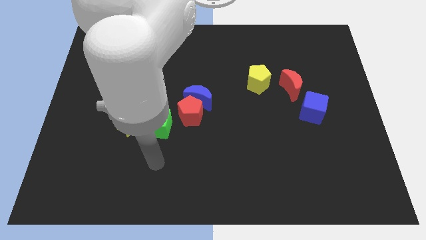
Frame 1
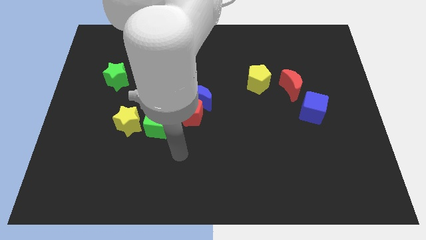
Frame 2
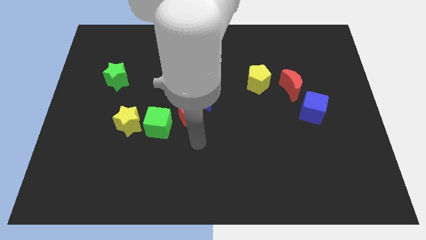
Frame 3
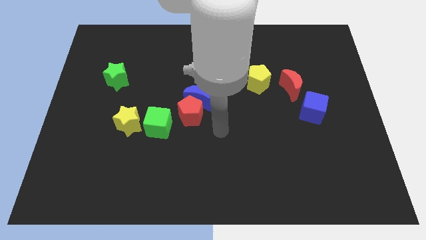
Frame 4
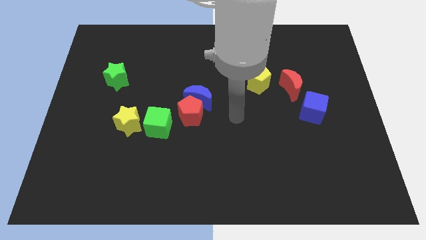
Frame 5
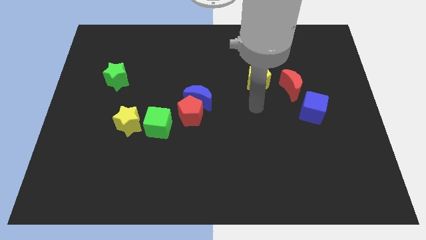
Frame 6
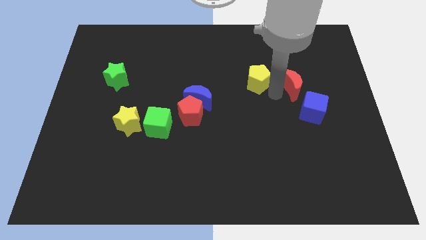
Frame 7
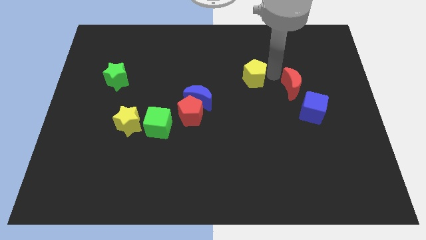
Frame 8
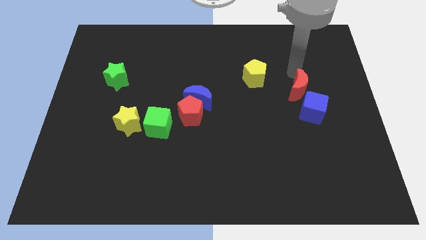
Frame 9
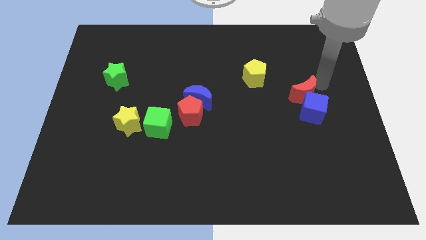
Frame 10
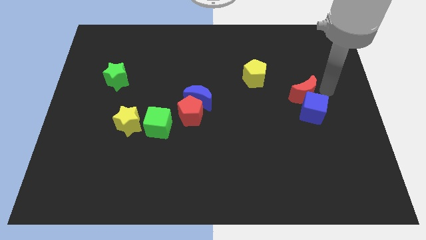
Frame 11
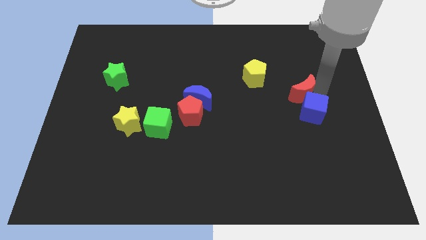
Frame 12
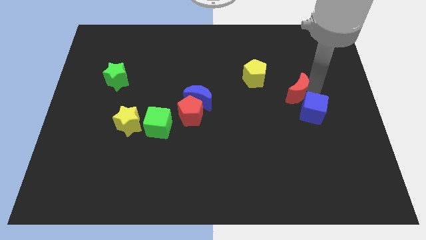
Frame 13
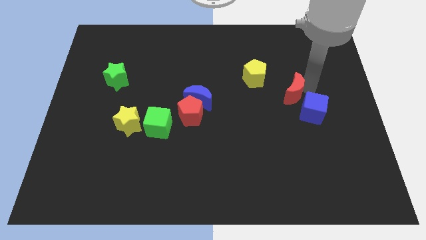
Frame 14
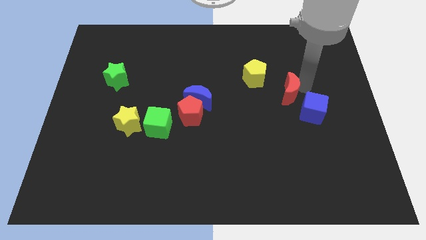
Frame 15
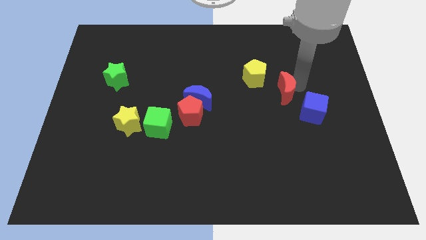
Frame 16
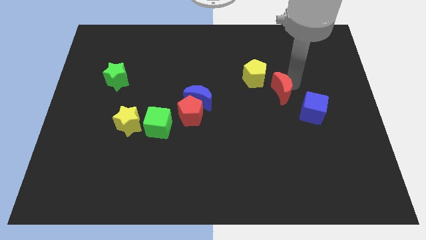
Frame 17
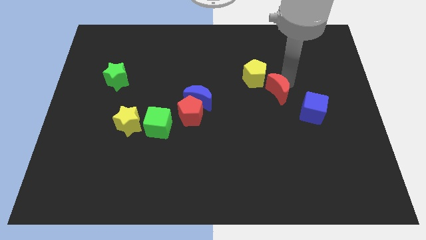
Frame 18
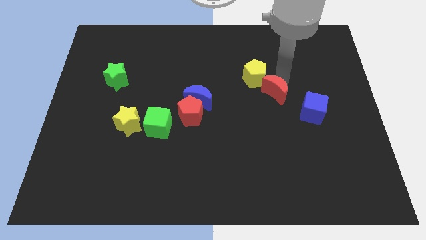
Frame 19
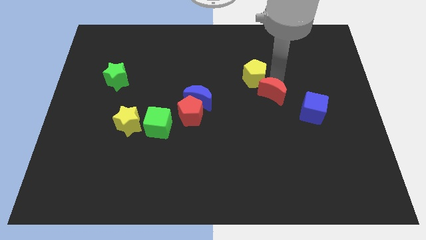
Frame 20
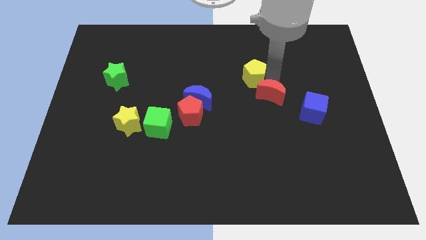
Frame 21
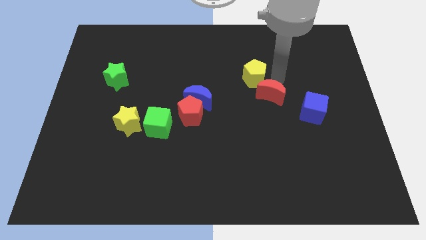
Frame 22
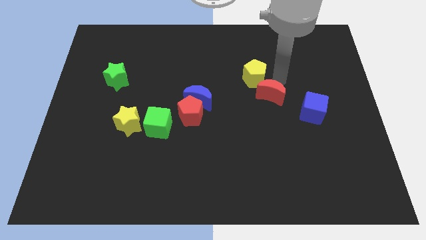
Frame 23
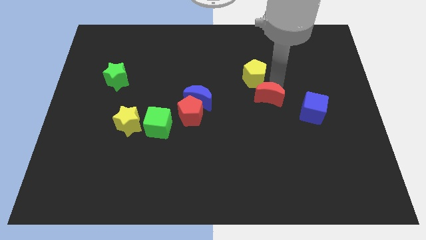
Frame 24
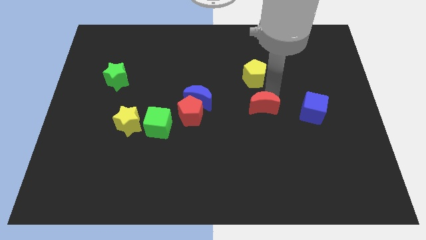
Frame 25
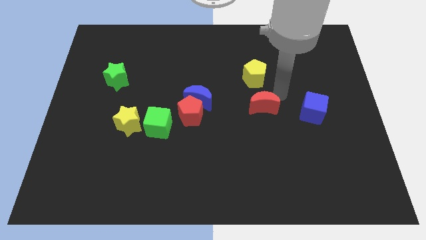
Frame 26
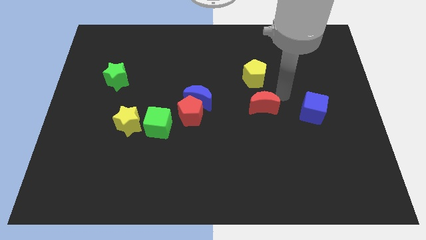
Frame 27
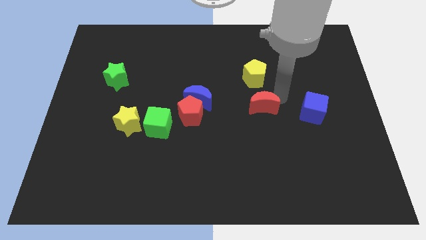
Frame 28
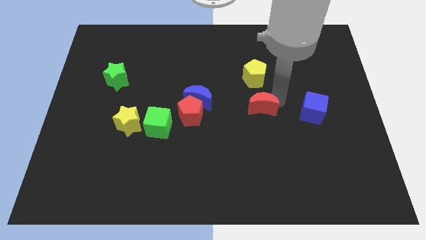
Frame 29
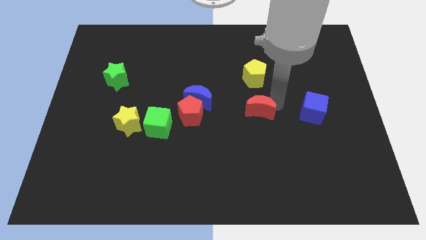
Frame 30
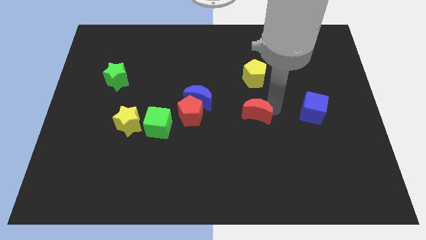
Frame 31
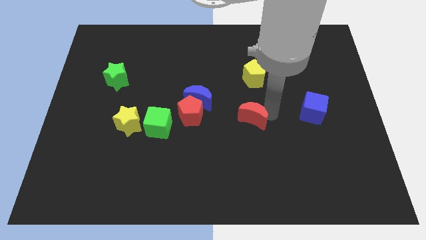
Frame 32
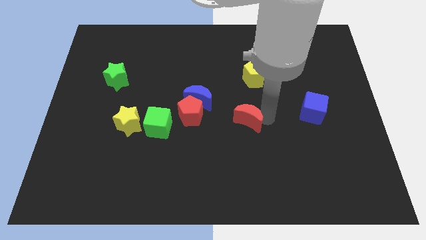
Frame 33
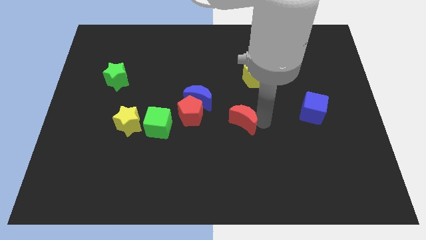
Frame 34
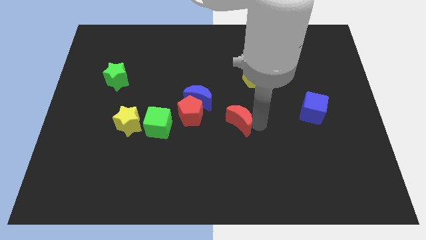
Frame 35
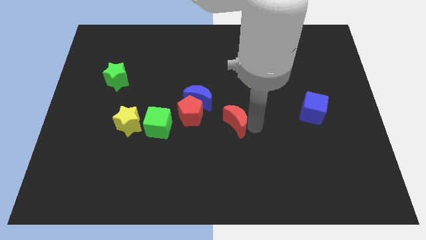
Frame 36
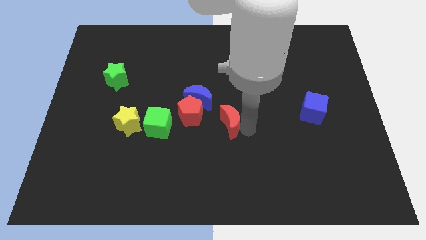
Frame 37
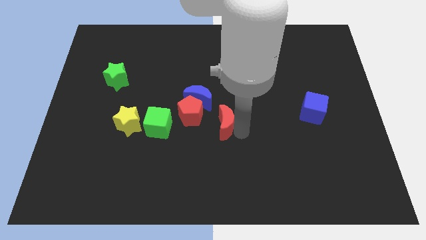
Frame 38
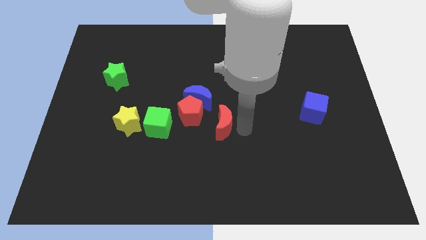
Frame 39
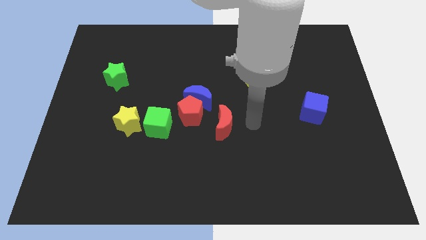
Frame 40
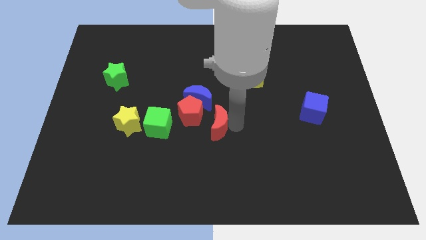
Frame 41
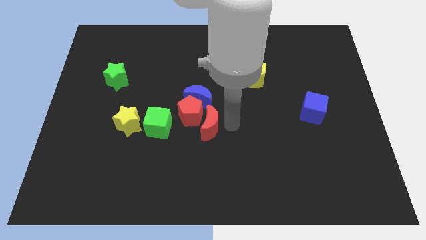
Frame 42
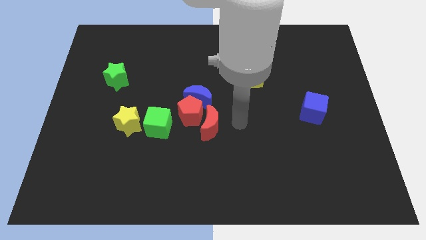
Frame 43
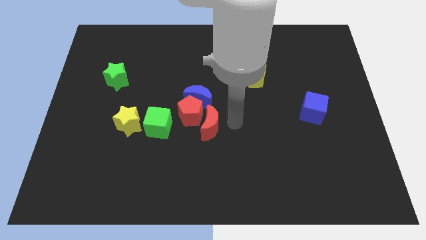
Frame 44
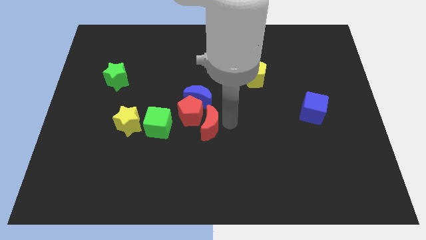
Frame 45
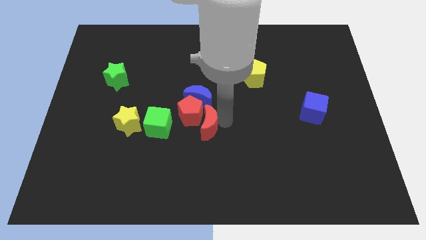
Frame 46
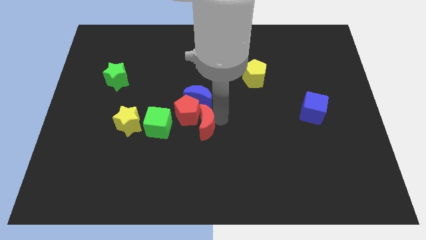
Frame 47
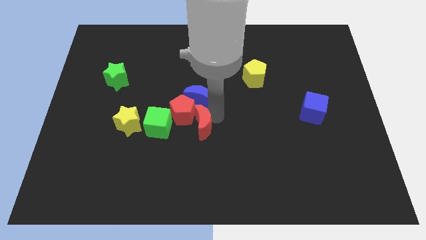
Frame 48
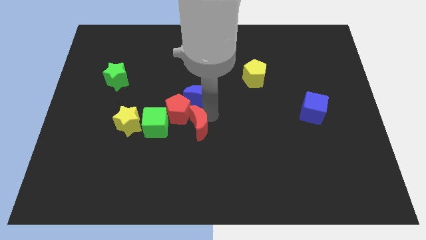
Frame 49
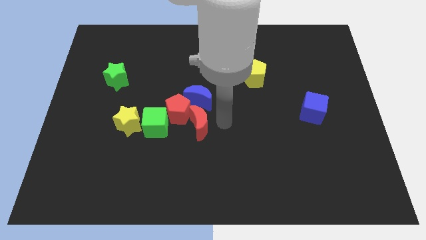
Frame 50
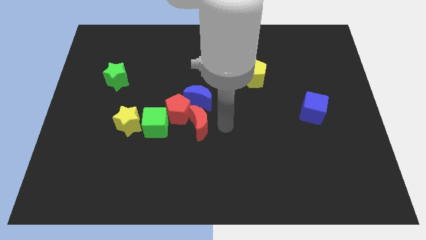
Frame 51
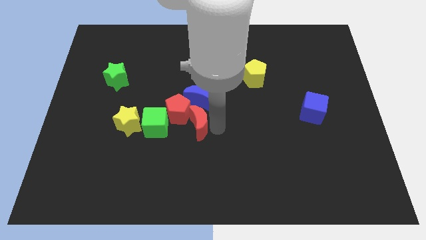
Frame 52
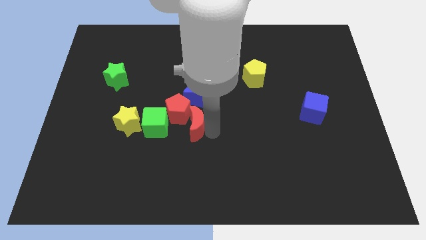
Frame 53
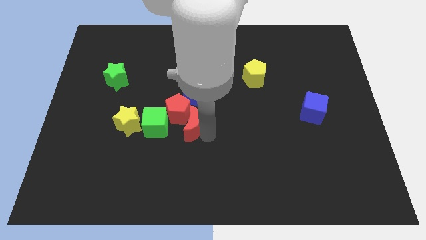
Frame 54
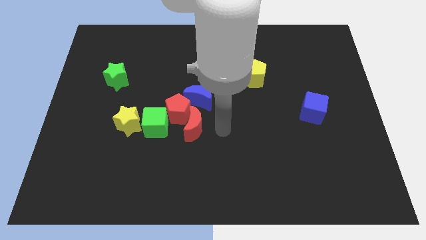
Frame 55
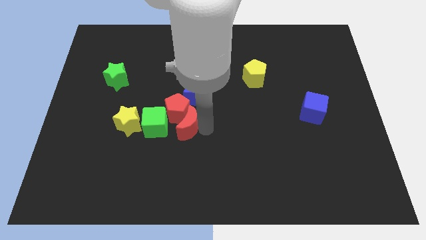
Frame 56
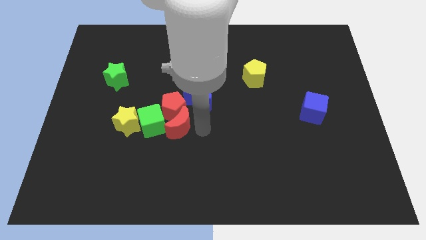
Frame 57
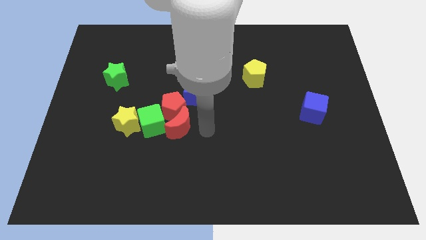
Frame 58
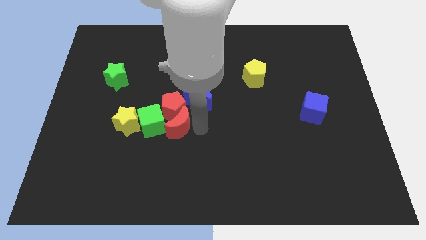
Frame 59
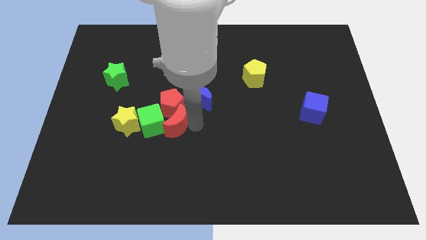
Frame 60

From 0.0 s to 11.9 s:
move the red moon to the green cube

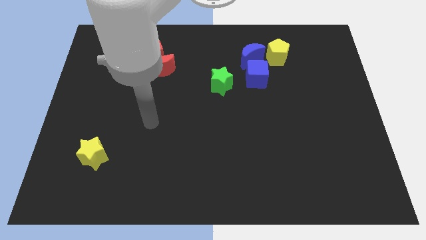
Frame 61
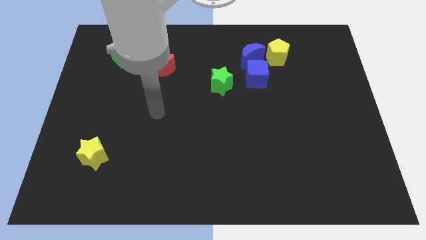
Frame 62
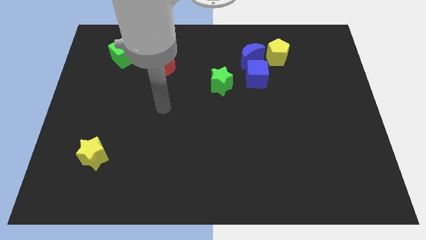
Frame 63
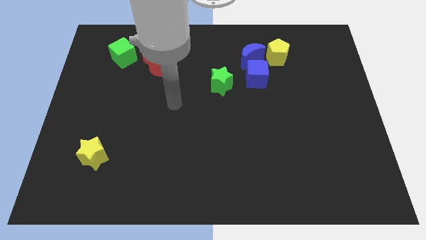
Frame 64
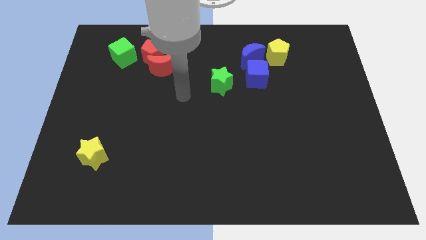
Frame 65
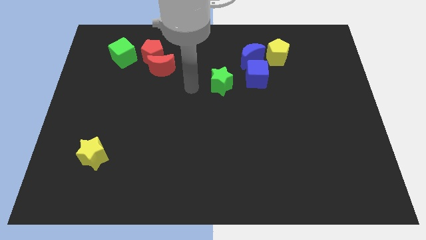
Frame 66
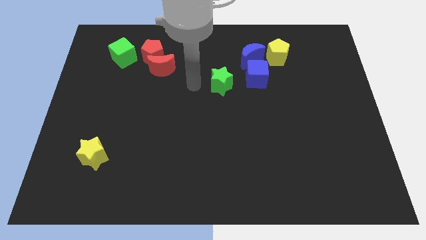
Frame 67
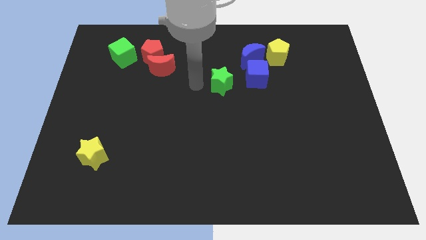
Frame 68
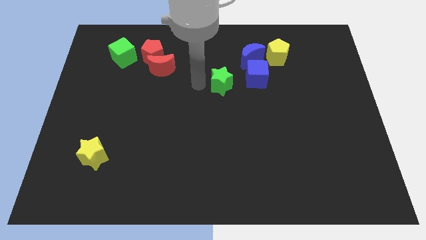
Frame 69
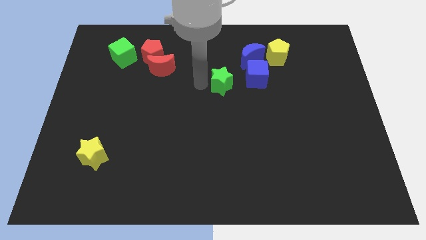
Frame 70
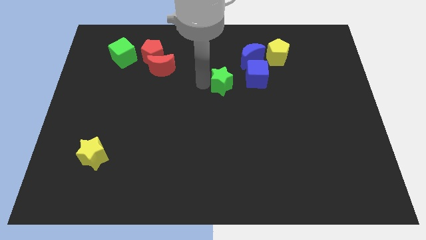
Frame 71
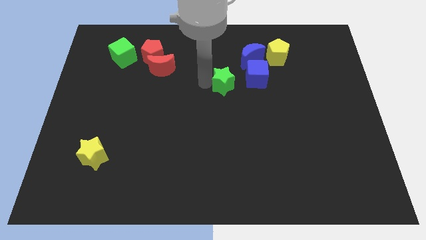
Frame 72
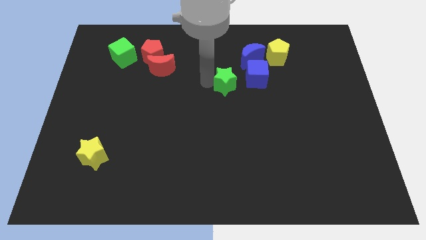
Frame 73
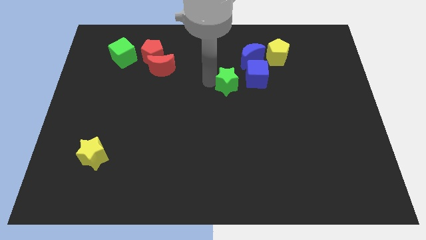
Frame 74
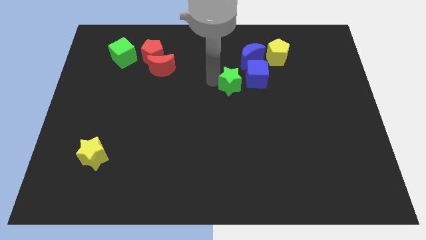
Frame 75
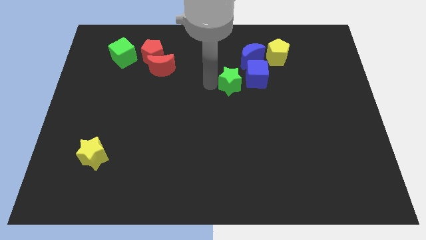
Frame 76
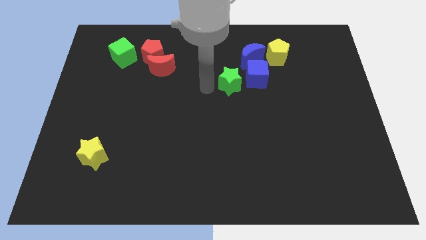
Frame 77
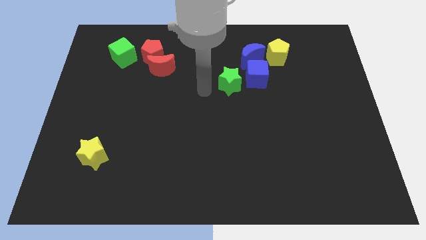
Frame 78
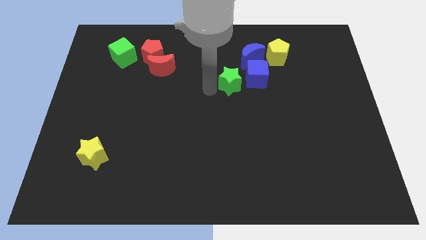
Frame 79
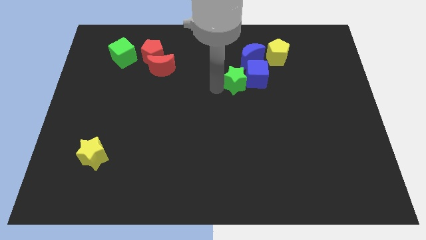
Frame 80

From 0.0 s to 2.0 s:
slide the green star to the blue cube
